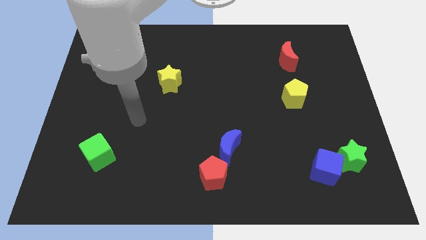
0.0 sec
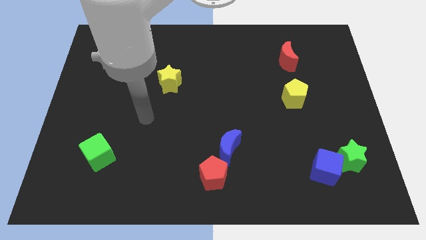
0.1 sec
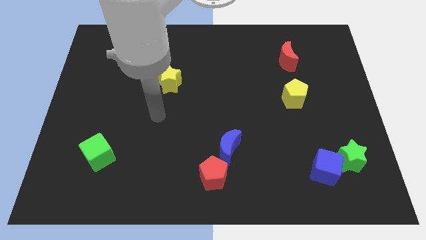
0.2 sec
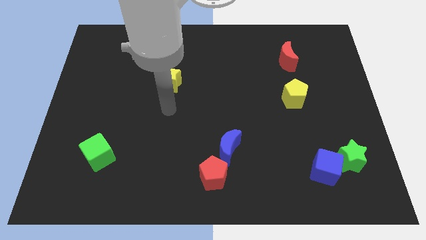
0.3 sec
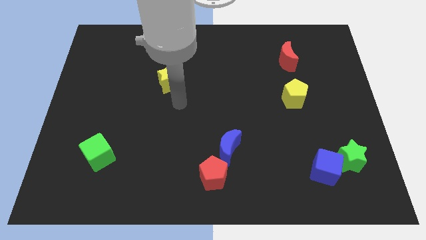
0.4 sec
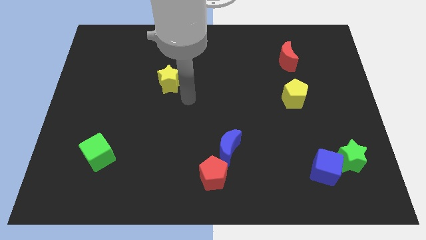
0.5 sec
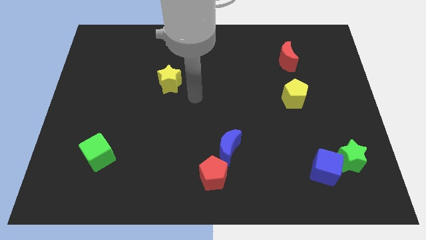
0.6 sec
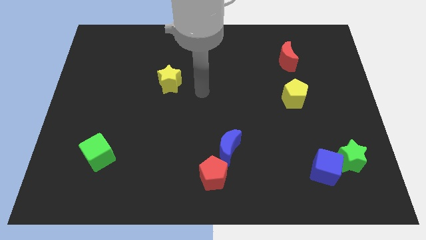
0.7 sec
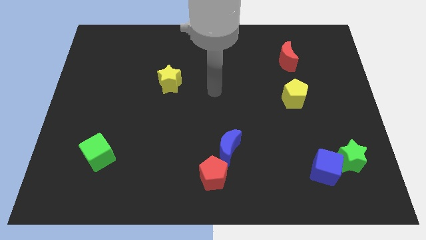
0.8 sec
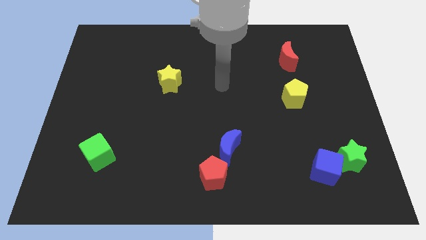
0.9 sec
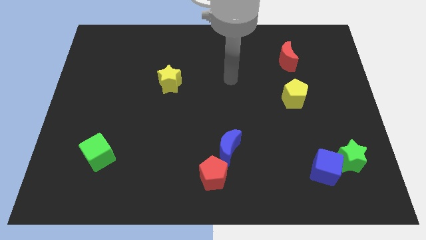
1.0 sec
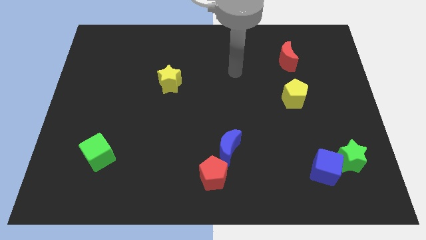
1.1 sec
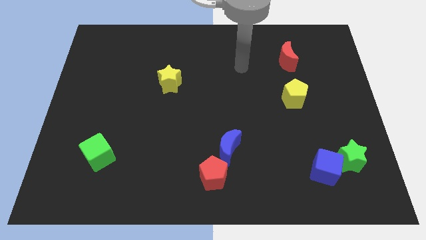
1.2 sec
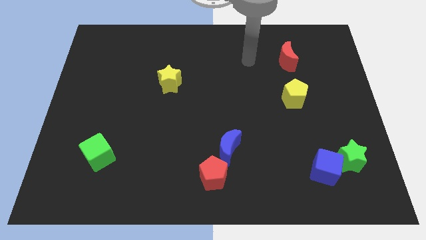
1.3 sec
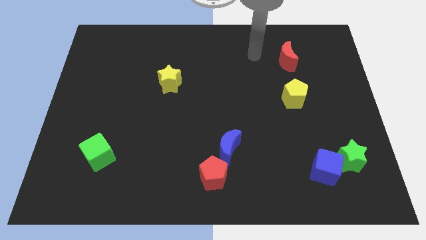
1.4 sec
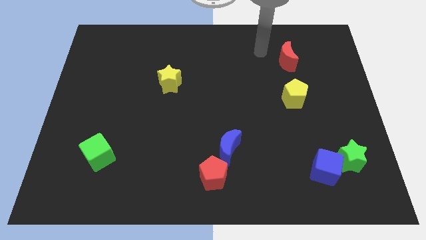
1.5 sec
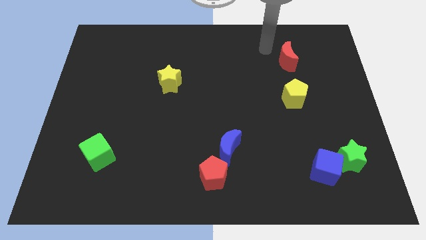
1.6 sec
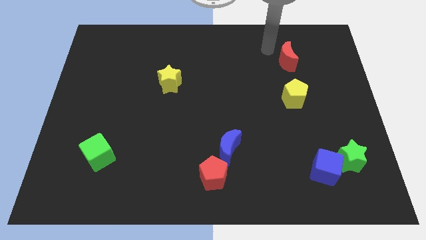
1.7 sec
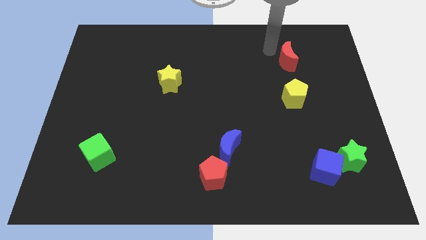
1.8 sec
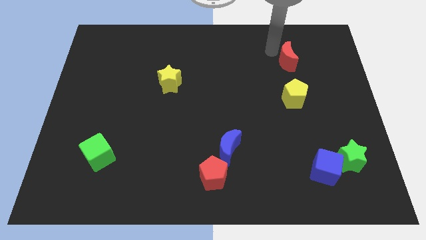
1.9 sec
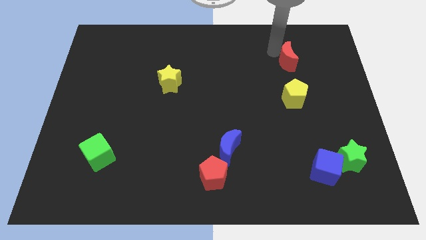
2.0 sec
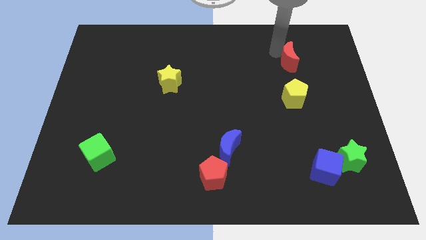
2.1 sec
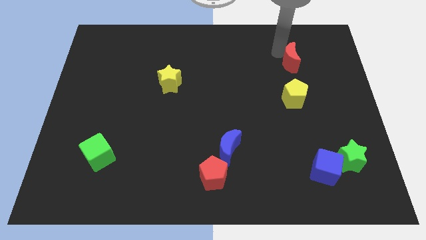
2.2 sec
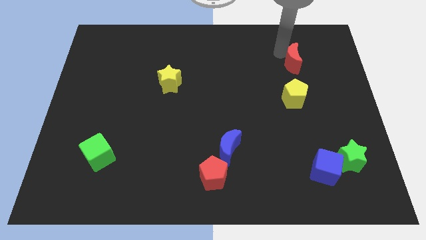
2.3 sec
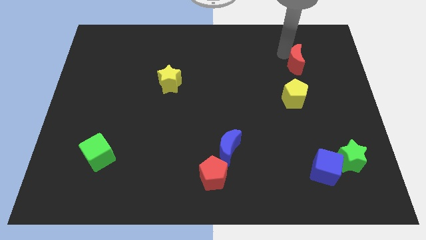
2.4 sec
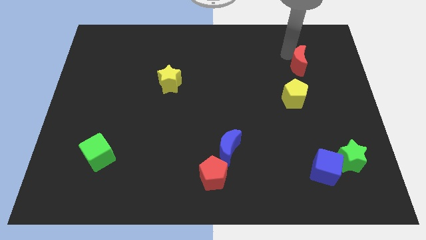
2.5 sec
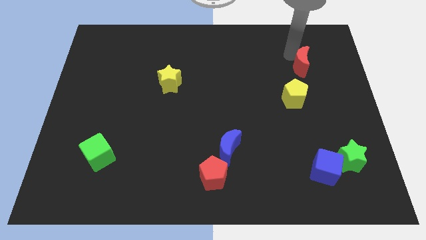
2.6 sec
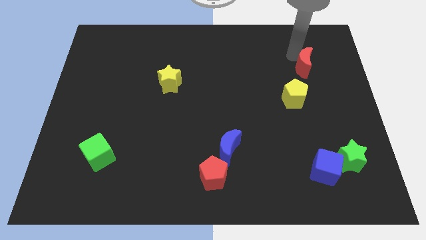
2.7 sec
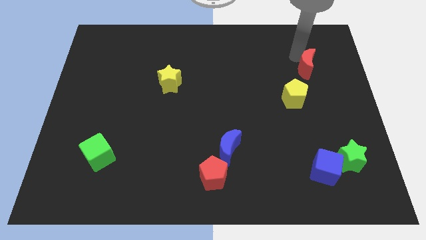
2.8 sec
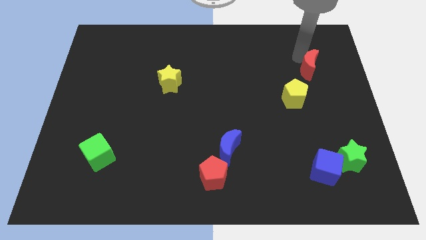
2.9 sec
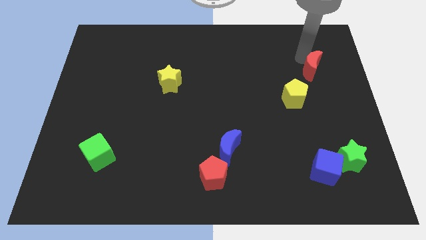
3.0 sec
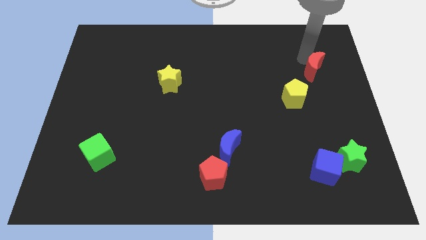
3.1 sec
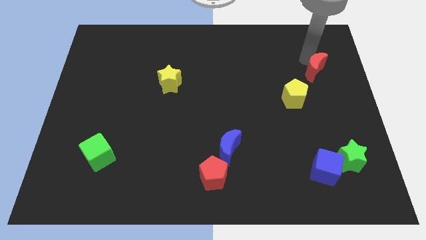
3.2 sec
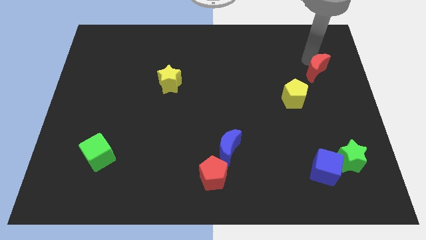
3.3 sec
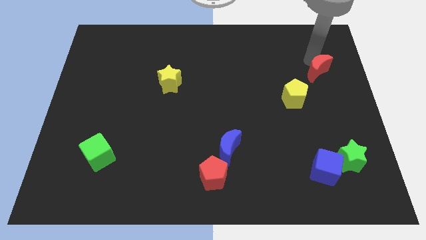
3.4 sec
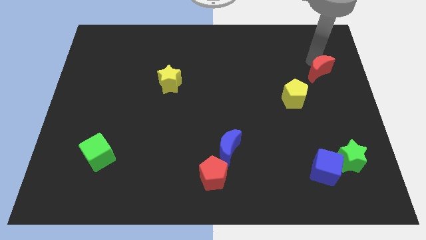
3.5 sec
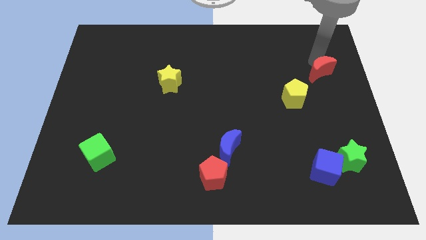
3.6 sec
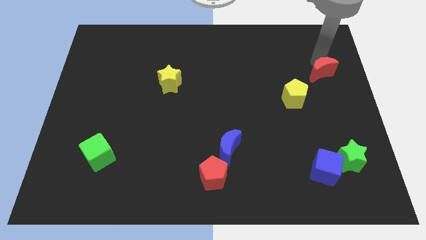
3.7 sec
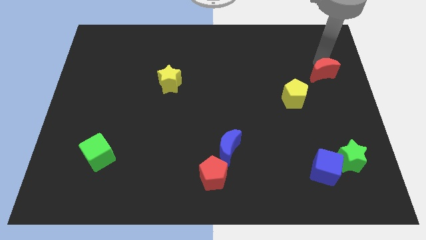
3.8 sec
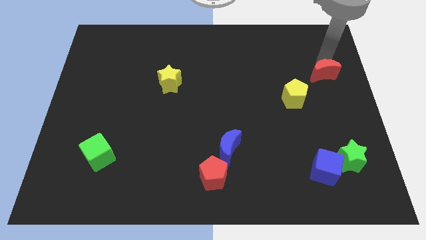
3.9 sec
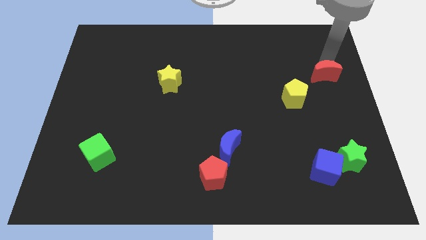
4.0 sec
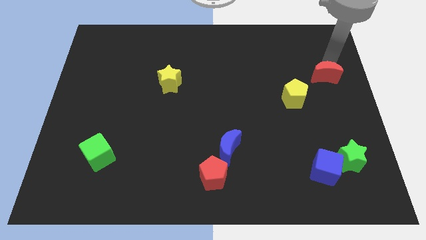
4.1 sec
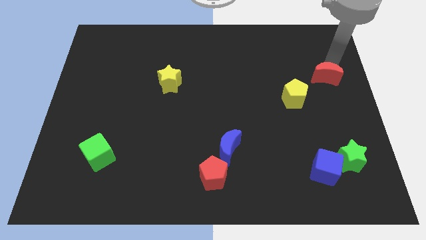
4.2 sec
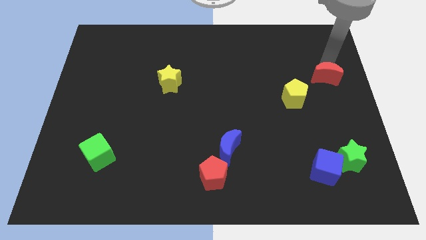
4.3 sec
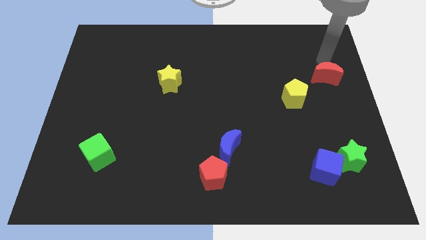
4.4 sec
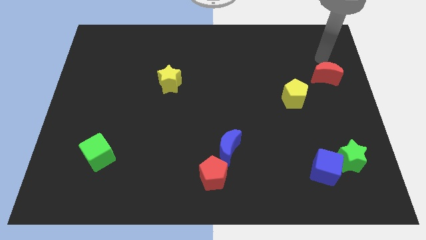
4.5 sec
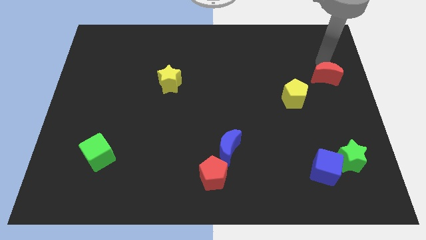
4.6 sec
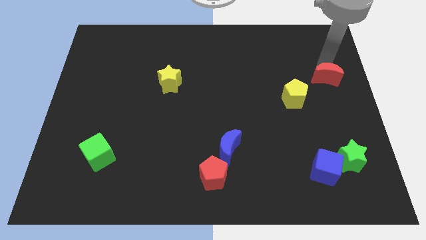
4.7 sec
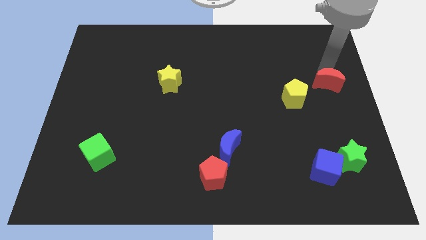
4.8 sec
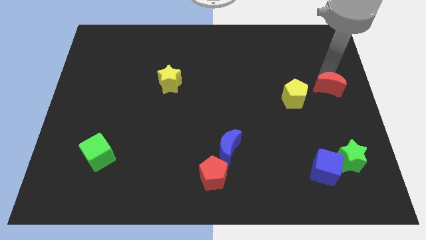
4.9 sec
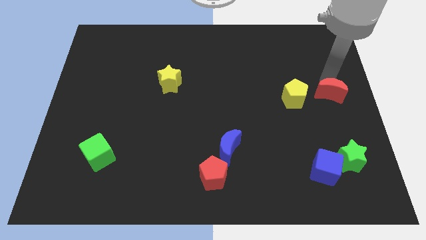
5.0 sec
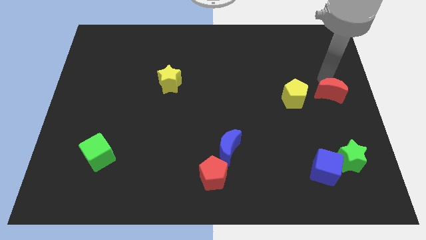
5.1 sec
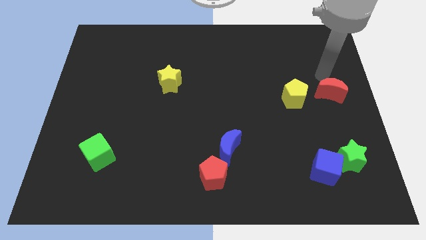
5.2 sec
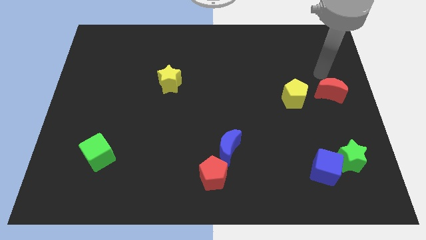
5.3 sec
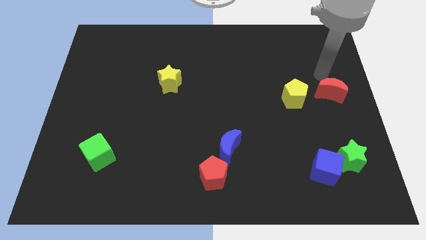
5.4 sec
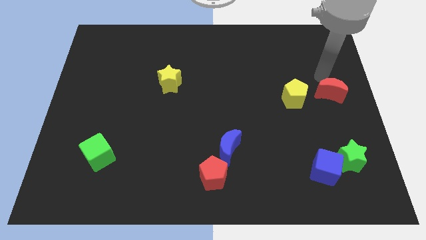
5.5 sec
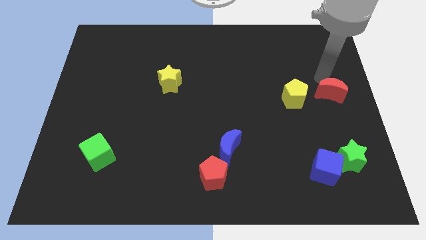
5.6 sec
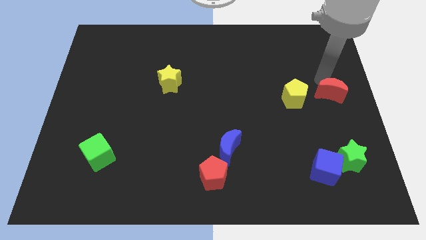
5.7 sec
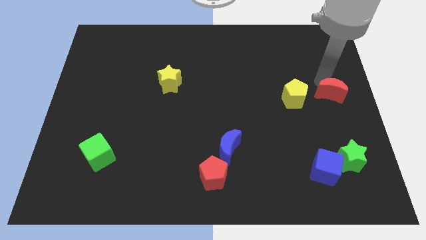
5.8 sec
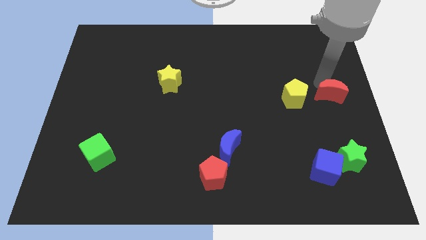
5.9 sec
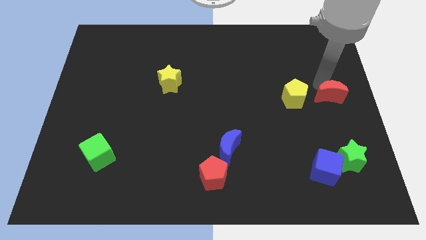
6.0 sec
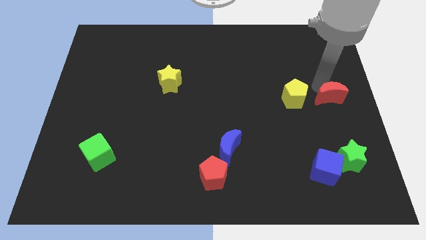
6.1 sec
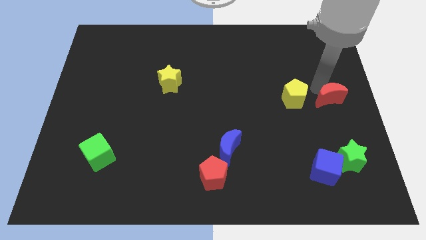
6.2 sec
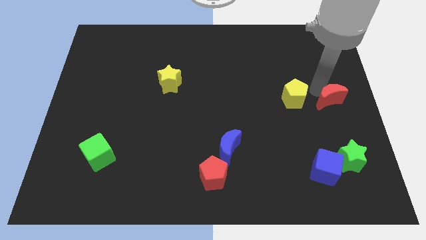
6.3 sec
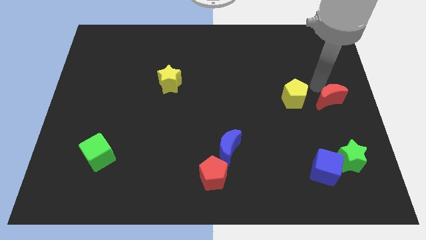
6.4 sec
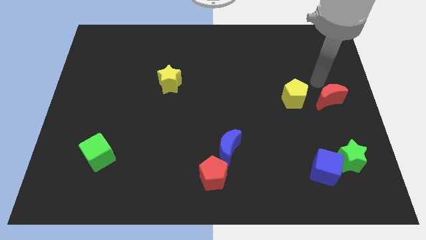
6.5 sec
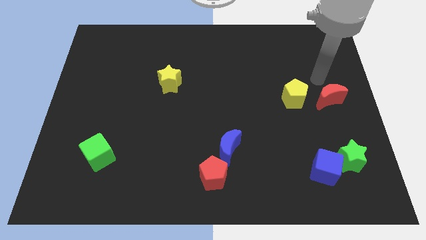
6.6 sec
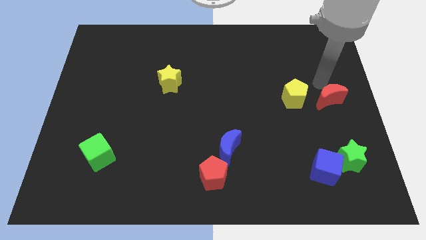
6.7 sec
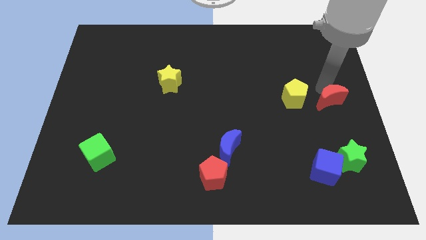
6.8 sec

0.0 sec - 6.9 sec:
slide the red moon to the top side of the green star
